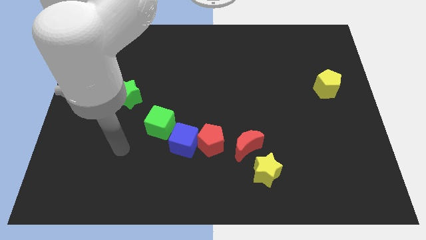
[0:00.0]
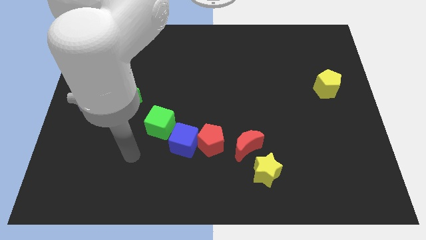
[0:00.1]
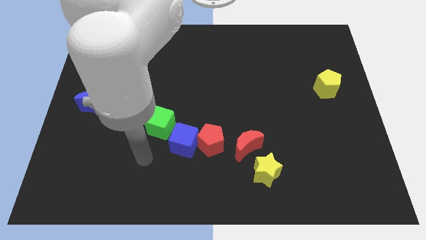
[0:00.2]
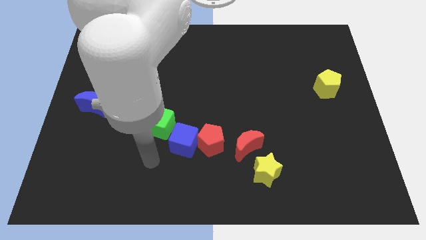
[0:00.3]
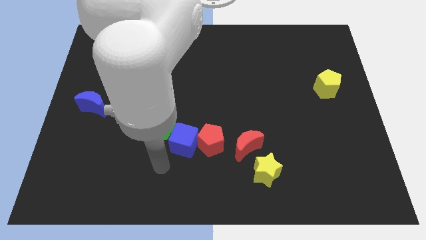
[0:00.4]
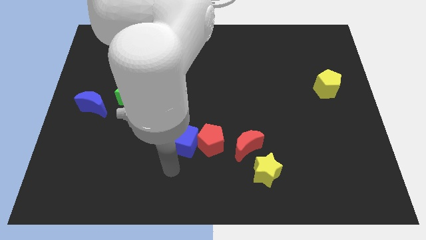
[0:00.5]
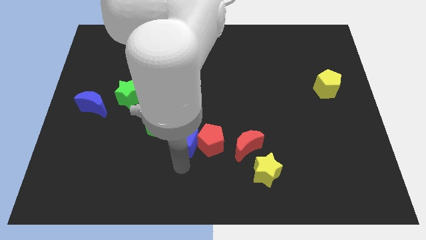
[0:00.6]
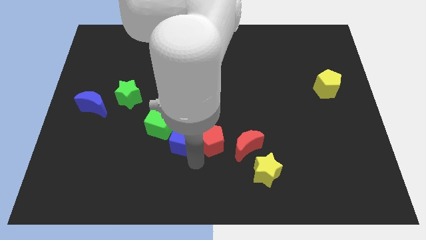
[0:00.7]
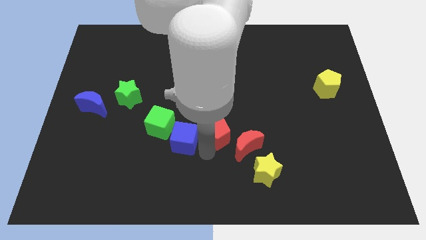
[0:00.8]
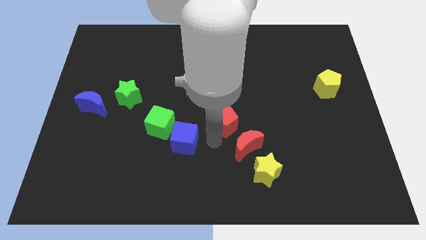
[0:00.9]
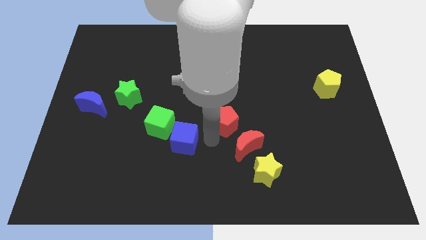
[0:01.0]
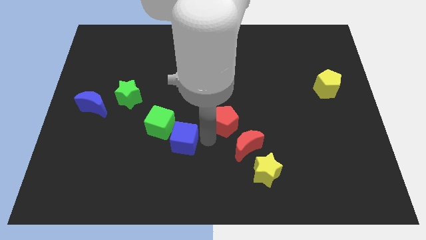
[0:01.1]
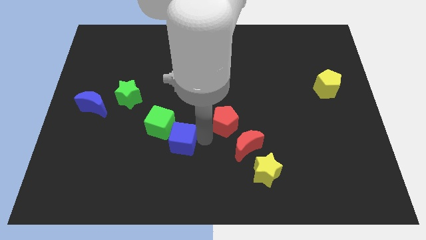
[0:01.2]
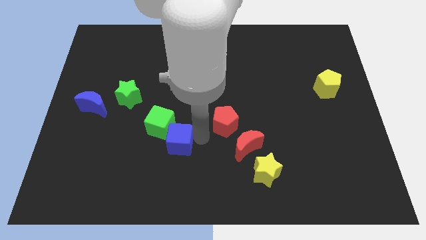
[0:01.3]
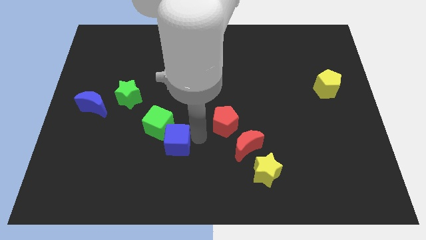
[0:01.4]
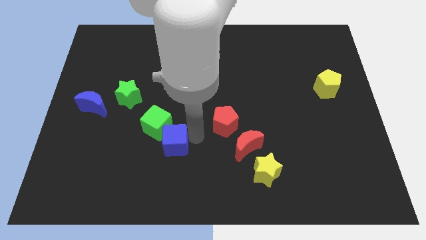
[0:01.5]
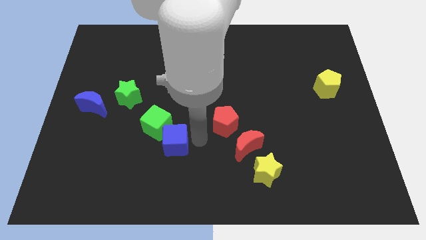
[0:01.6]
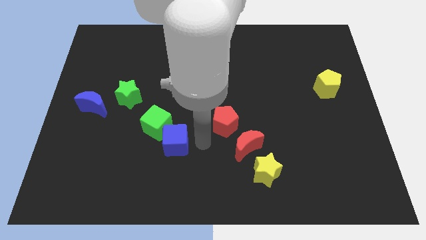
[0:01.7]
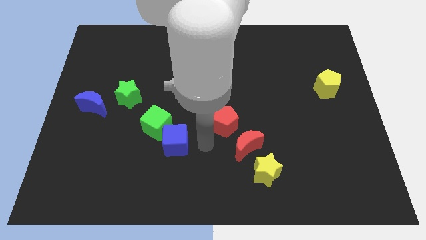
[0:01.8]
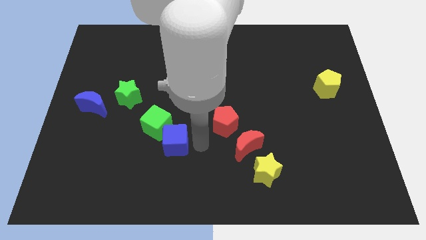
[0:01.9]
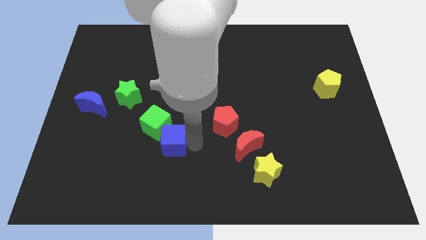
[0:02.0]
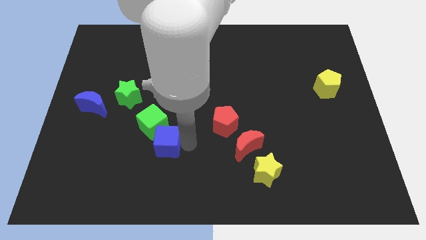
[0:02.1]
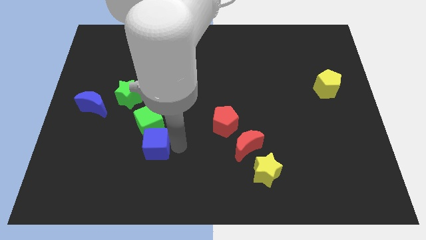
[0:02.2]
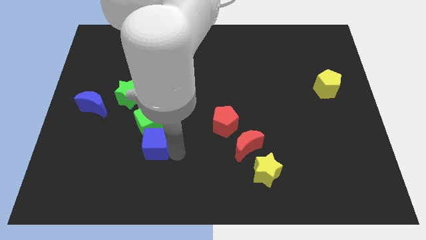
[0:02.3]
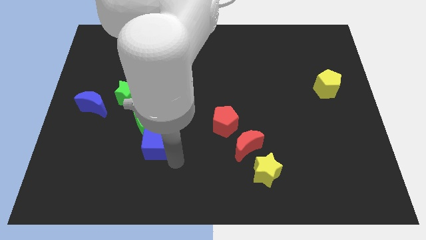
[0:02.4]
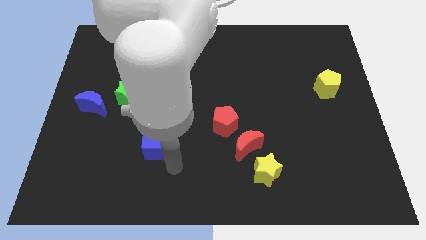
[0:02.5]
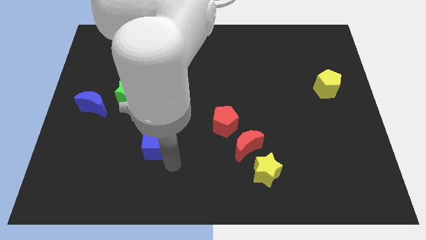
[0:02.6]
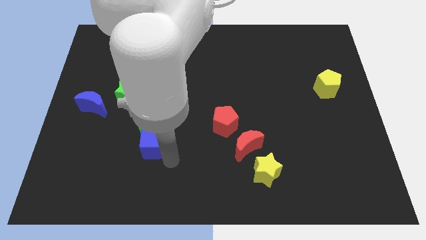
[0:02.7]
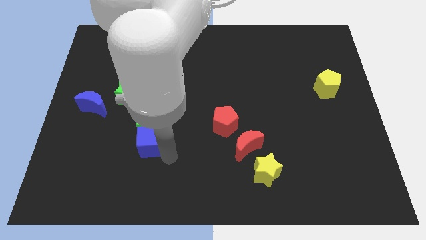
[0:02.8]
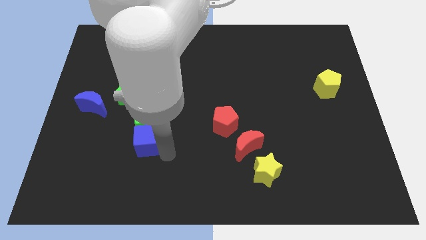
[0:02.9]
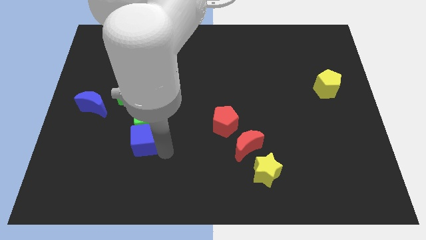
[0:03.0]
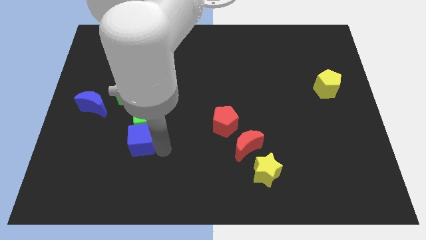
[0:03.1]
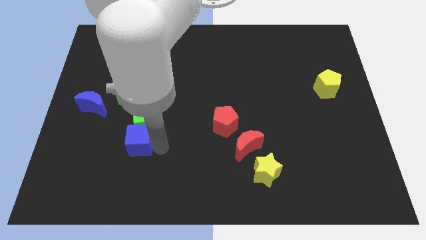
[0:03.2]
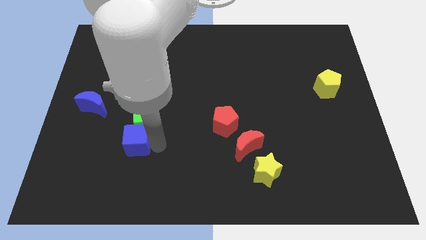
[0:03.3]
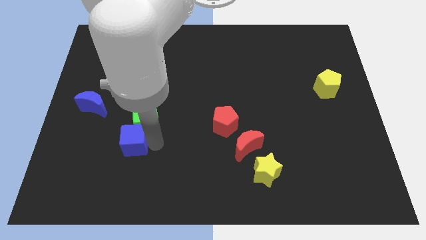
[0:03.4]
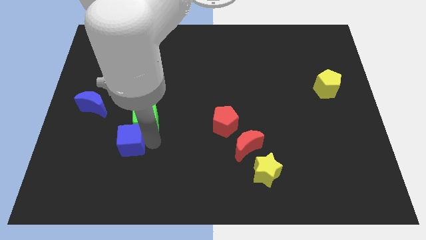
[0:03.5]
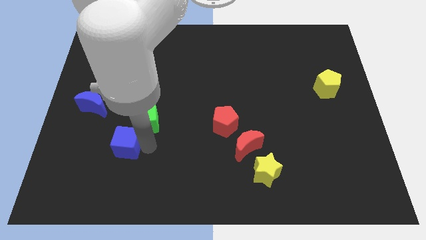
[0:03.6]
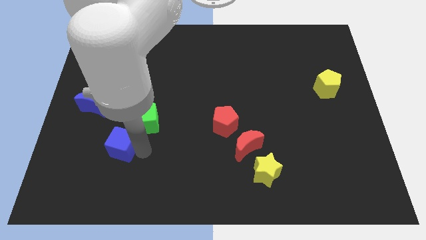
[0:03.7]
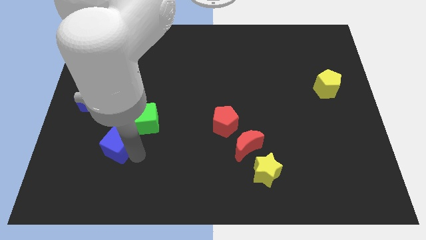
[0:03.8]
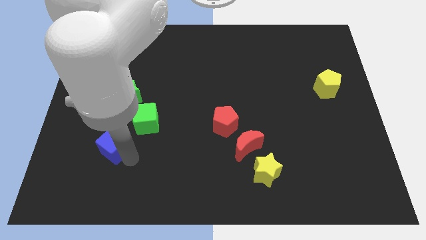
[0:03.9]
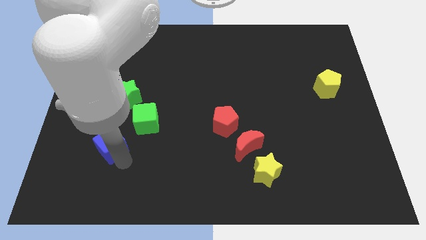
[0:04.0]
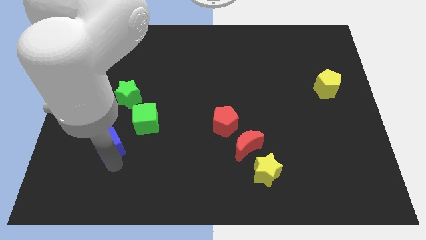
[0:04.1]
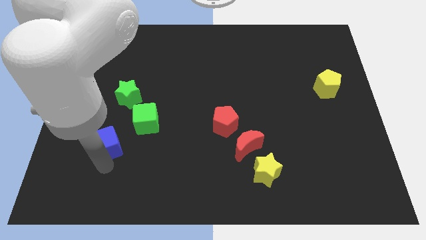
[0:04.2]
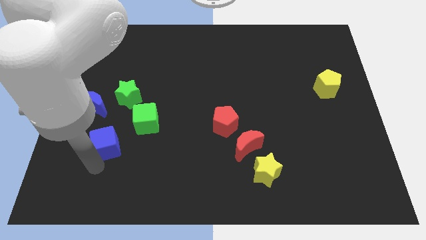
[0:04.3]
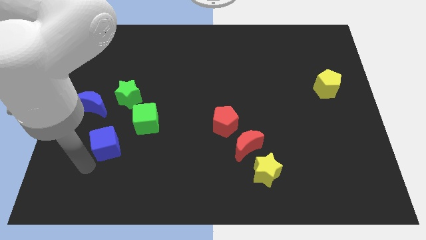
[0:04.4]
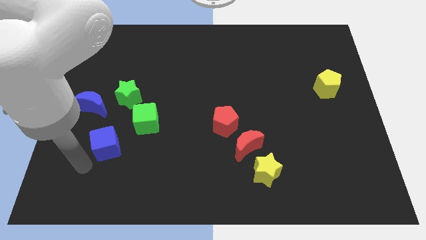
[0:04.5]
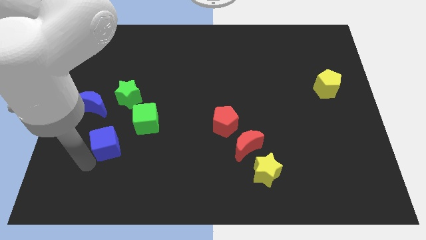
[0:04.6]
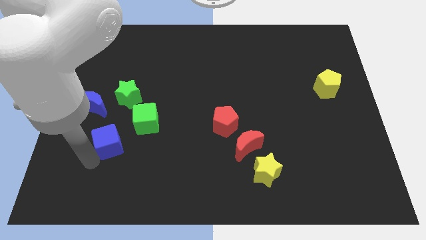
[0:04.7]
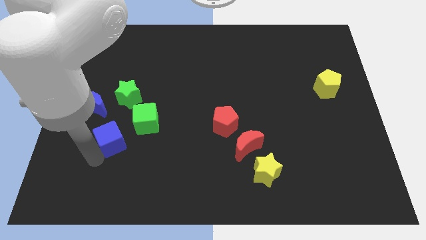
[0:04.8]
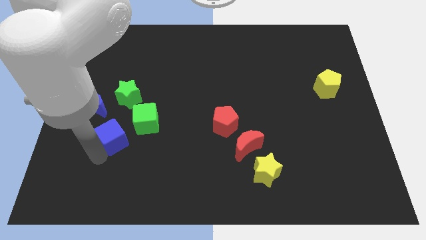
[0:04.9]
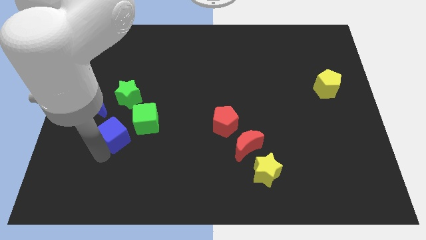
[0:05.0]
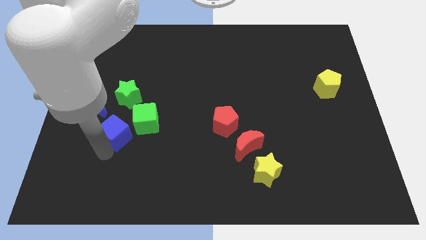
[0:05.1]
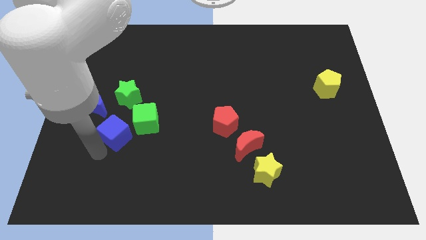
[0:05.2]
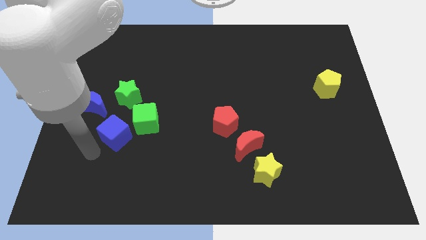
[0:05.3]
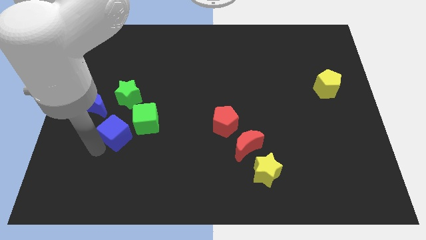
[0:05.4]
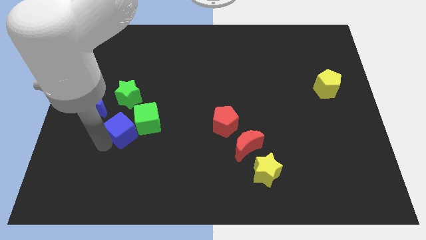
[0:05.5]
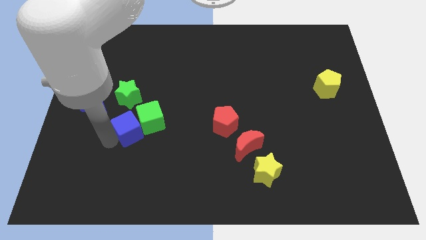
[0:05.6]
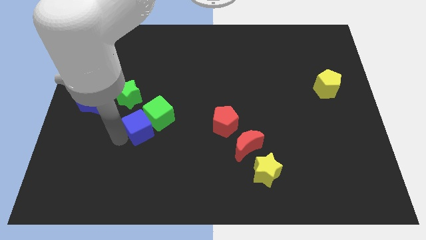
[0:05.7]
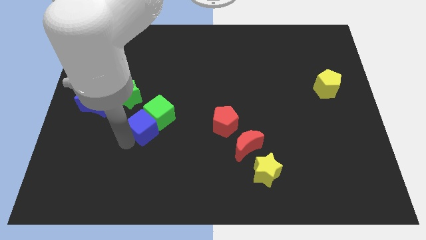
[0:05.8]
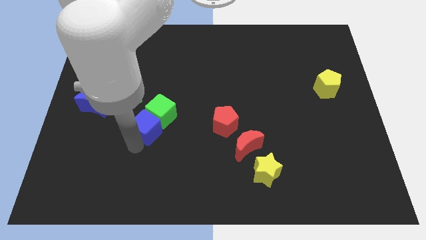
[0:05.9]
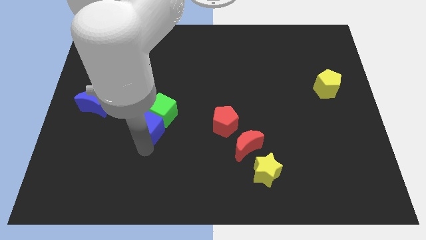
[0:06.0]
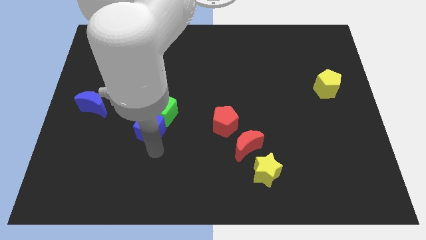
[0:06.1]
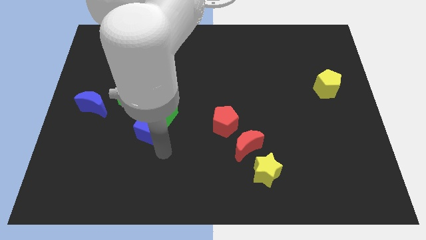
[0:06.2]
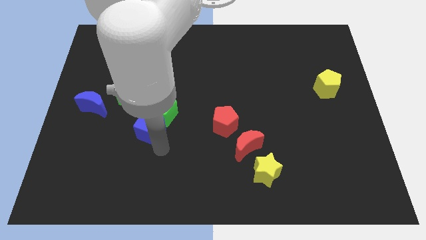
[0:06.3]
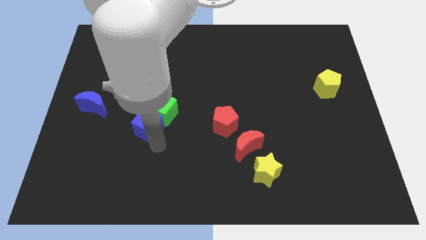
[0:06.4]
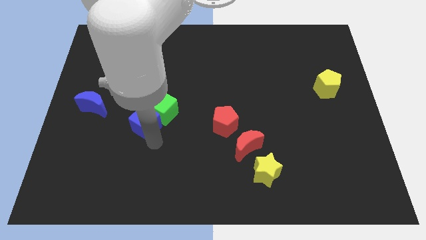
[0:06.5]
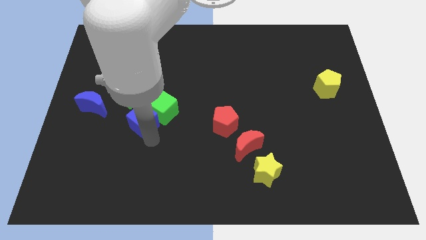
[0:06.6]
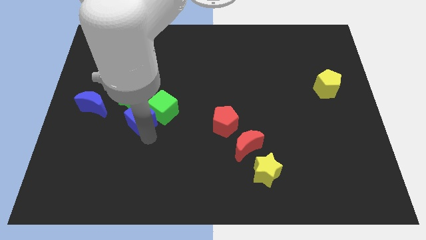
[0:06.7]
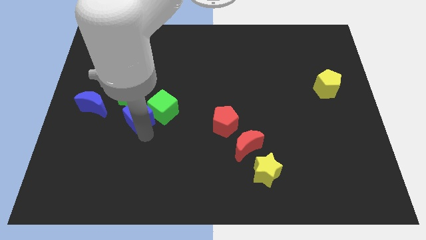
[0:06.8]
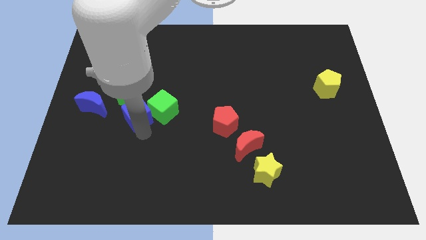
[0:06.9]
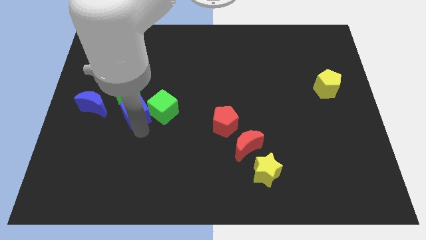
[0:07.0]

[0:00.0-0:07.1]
push the blue cube close to the green star
